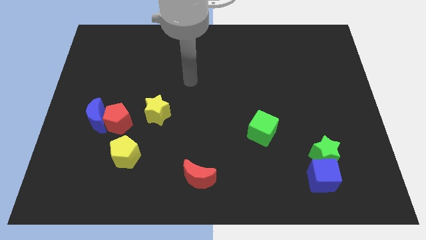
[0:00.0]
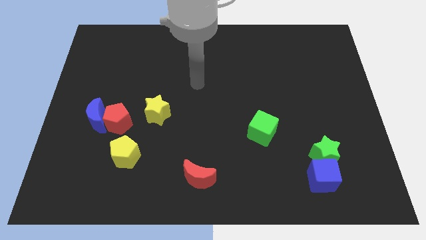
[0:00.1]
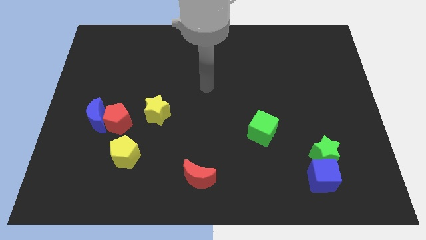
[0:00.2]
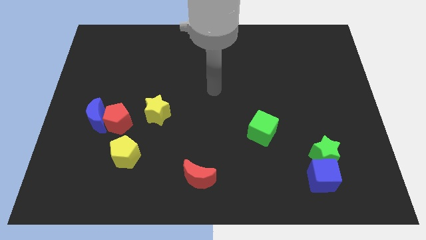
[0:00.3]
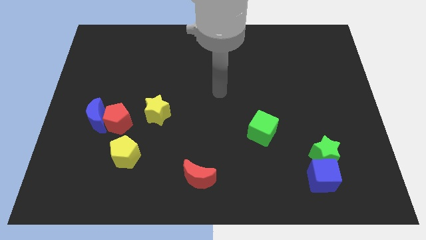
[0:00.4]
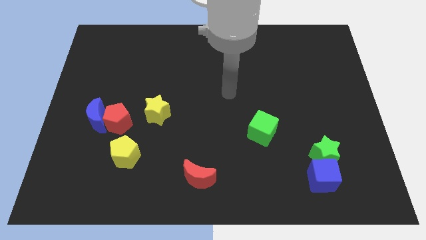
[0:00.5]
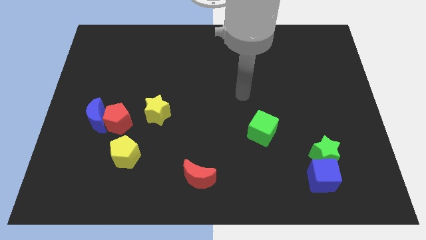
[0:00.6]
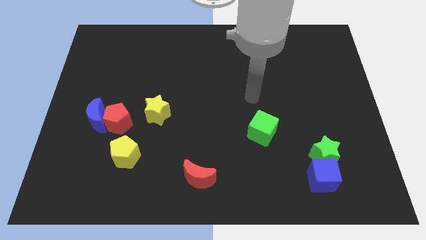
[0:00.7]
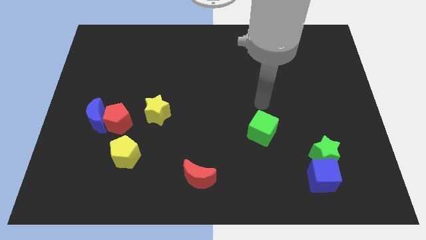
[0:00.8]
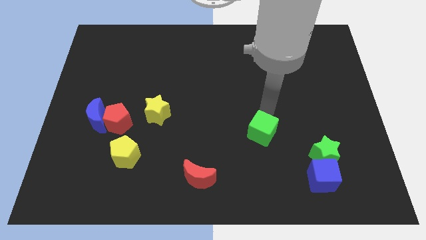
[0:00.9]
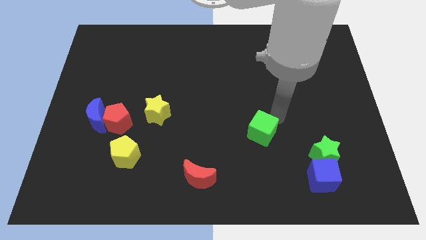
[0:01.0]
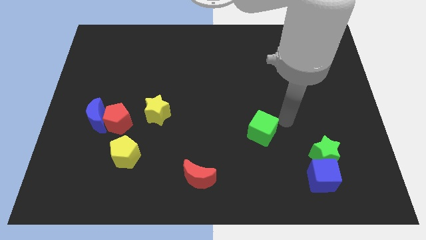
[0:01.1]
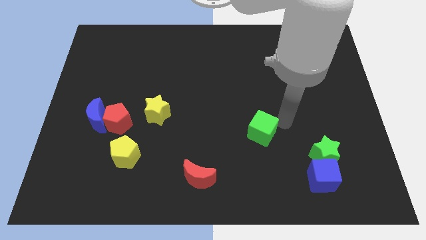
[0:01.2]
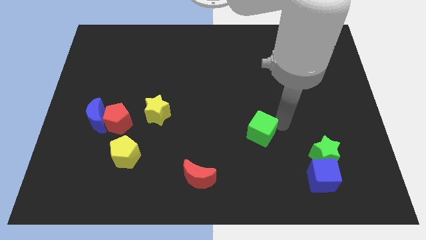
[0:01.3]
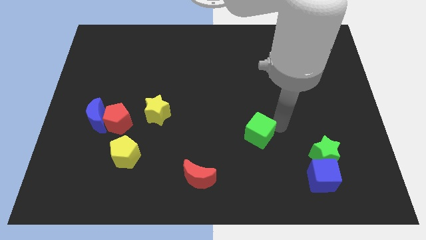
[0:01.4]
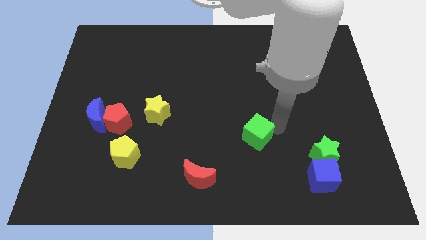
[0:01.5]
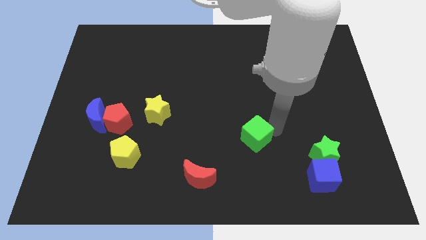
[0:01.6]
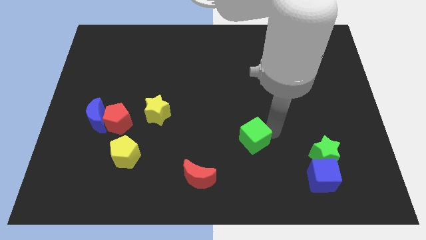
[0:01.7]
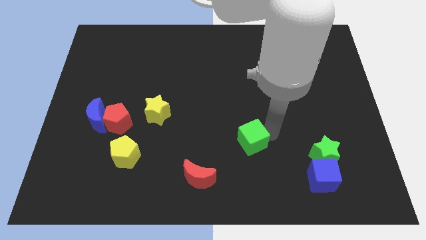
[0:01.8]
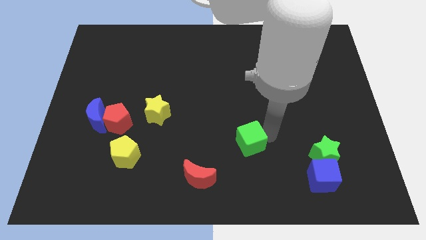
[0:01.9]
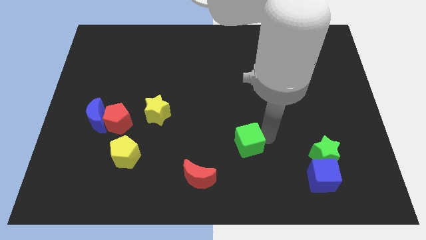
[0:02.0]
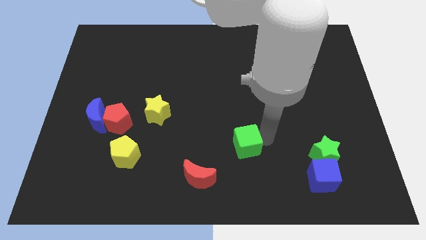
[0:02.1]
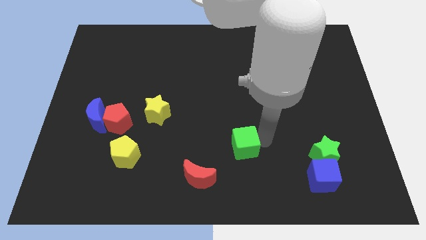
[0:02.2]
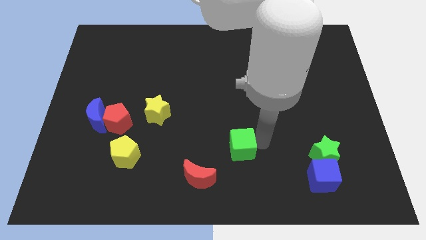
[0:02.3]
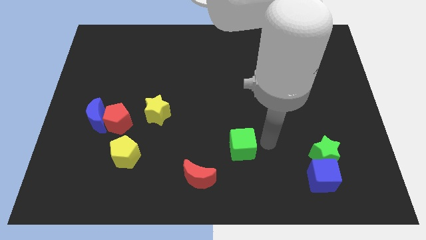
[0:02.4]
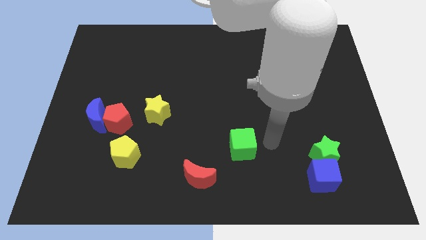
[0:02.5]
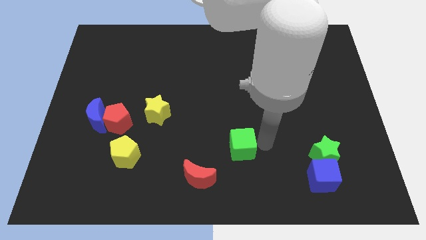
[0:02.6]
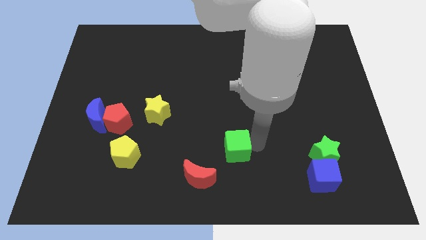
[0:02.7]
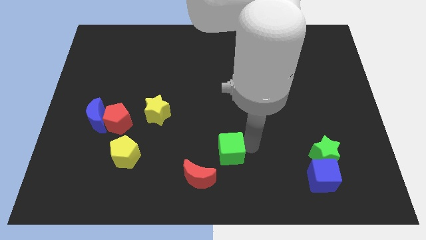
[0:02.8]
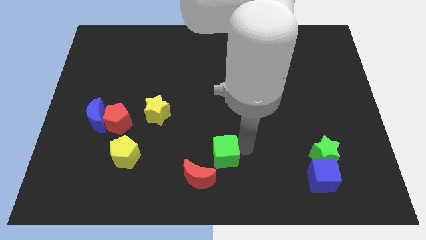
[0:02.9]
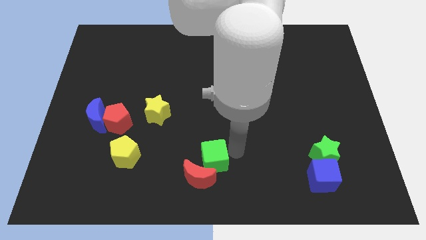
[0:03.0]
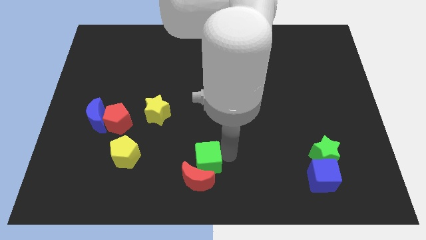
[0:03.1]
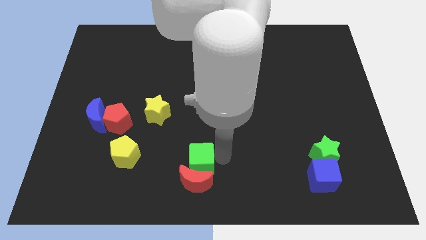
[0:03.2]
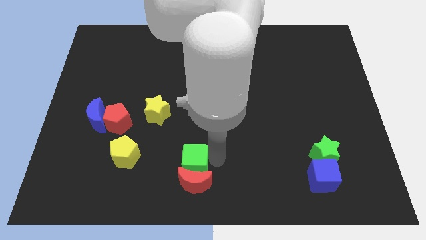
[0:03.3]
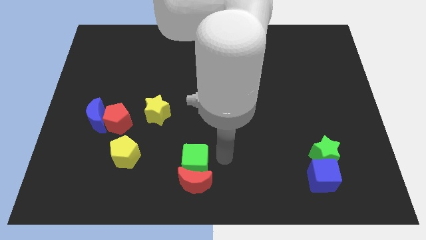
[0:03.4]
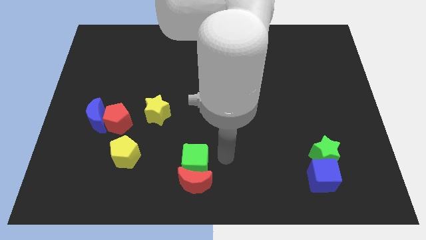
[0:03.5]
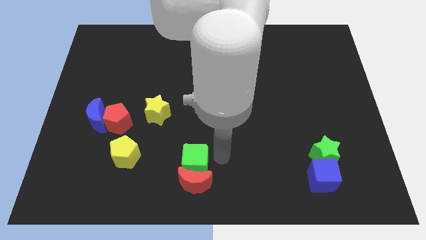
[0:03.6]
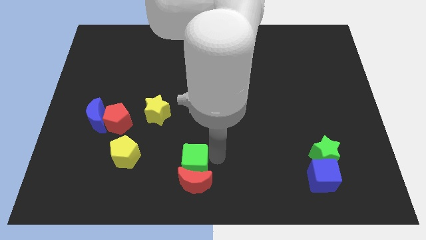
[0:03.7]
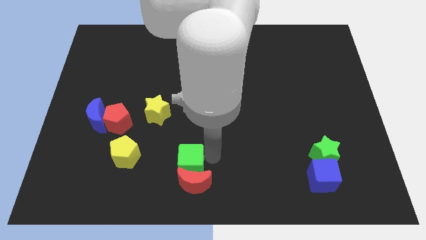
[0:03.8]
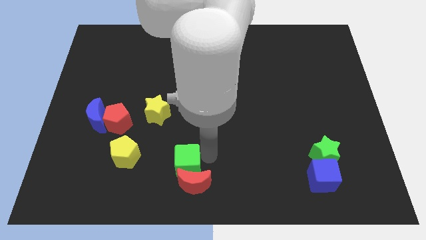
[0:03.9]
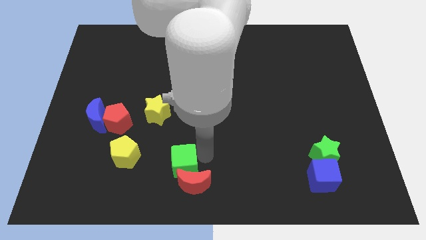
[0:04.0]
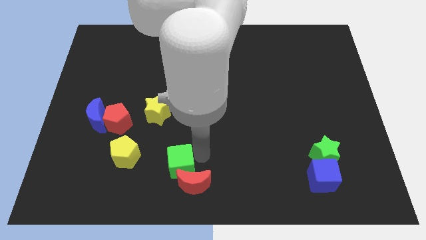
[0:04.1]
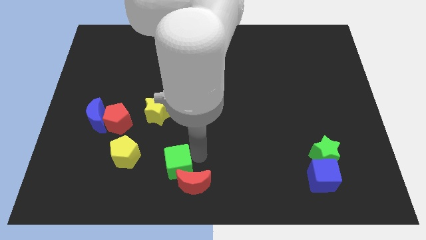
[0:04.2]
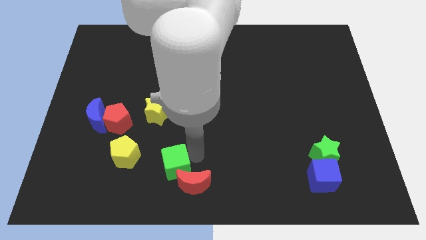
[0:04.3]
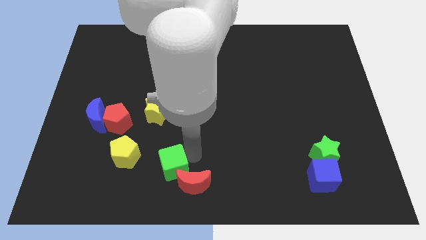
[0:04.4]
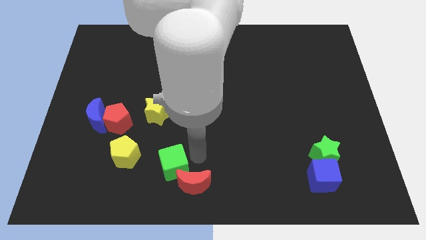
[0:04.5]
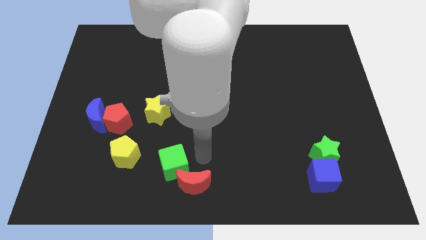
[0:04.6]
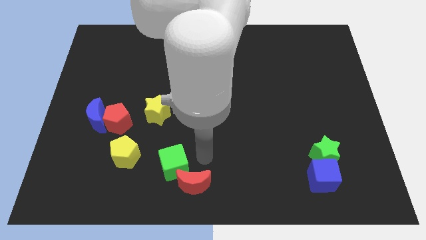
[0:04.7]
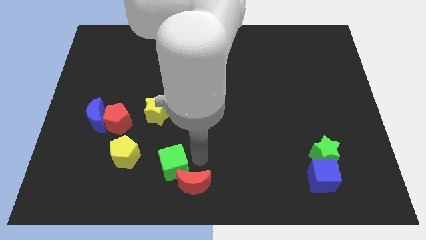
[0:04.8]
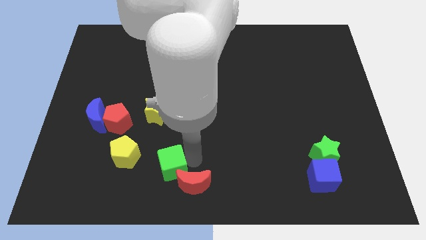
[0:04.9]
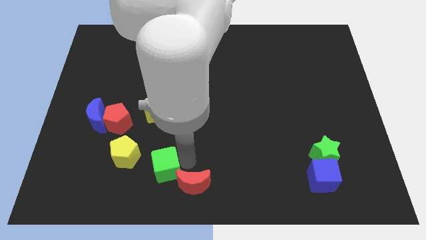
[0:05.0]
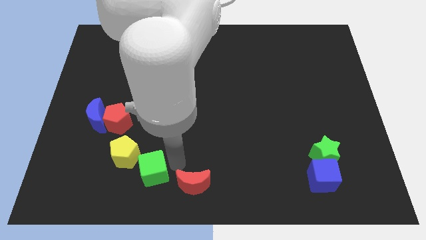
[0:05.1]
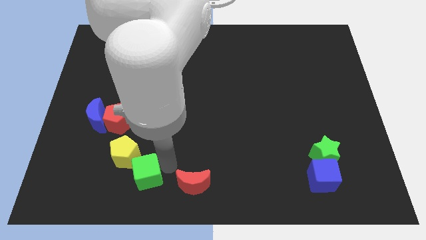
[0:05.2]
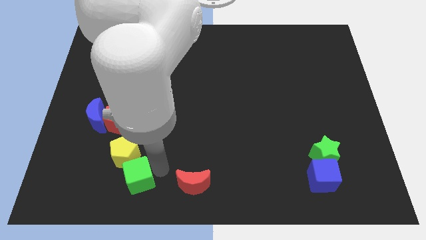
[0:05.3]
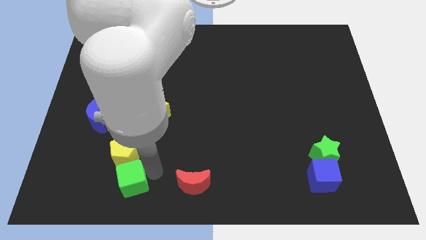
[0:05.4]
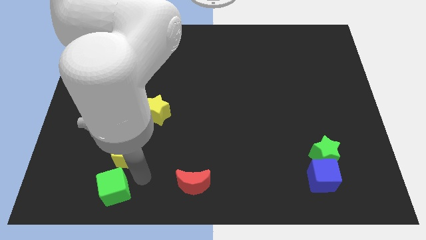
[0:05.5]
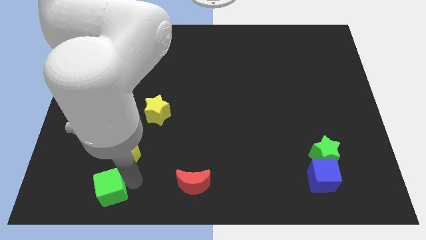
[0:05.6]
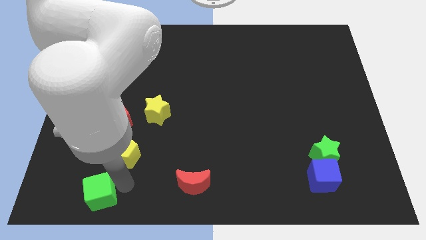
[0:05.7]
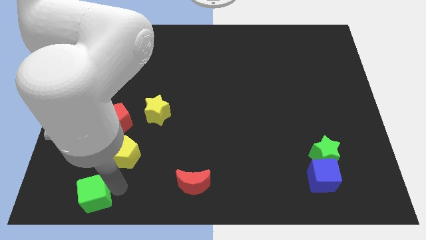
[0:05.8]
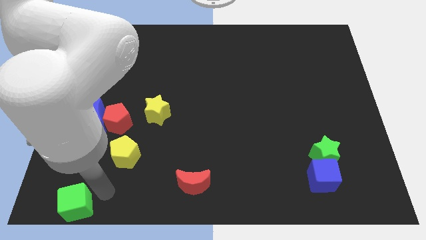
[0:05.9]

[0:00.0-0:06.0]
push the green cube to the bottom left corner
